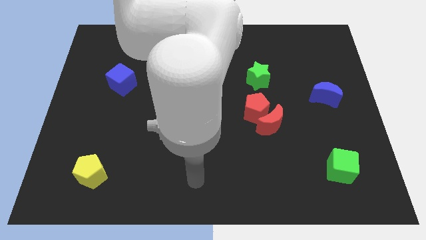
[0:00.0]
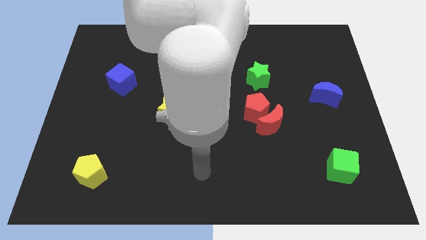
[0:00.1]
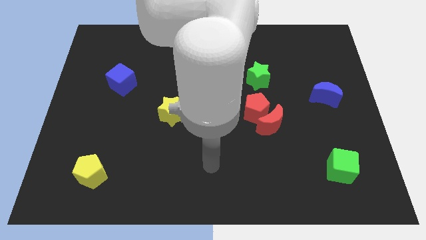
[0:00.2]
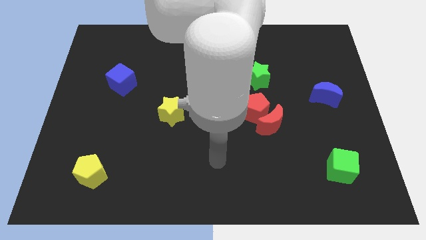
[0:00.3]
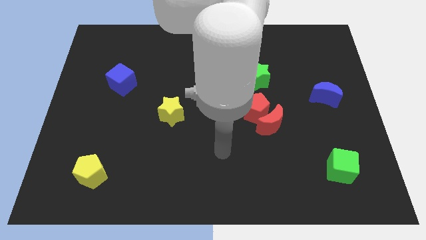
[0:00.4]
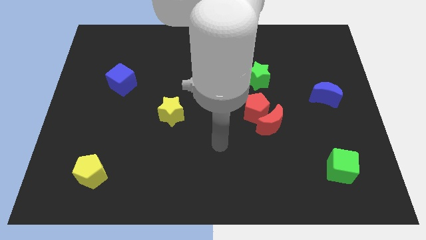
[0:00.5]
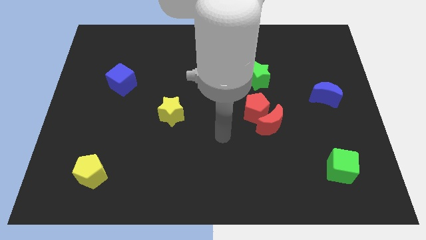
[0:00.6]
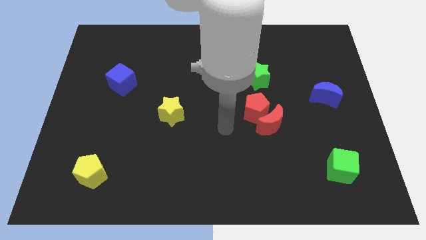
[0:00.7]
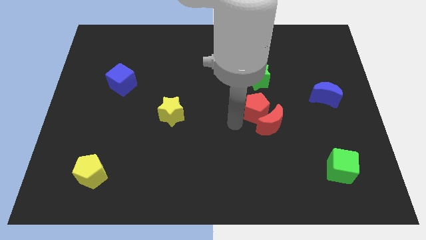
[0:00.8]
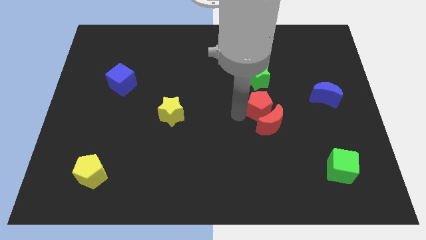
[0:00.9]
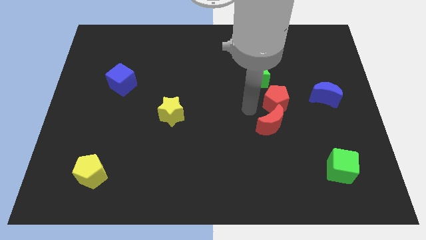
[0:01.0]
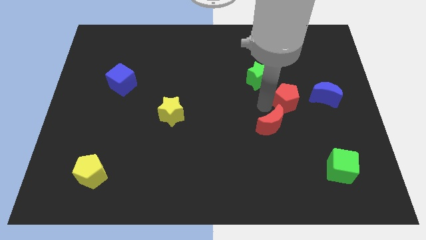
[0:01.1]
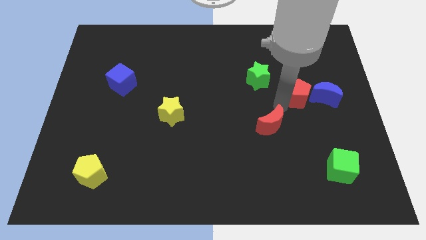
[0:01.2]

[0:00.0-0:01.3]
pull the red moon apart from the red pentagon

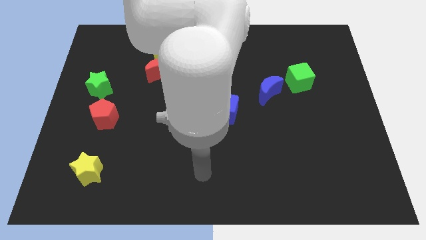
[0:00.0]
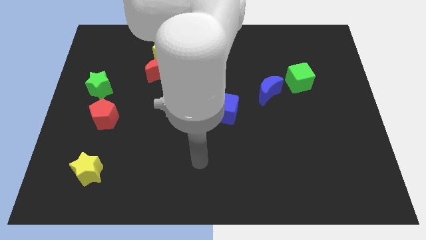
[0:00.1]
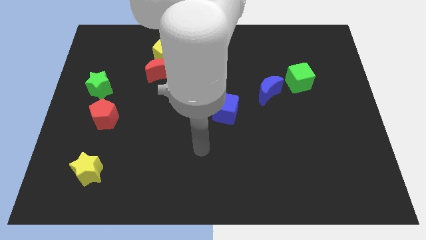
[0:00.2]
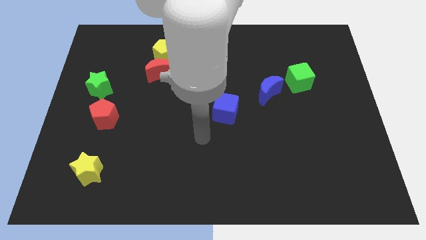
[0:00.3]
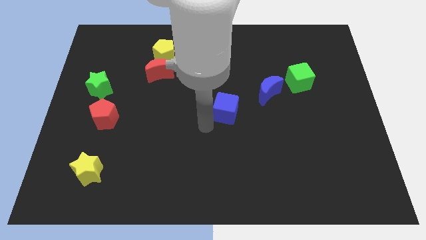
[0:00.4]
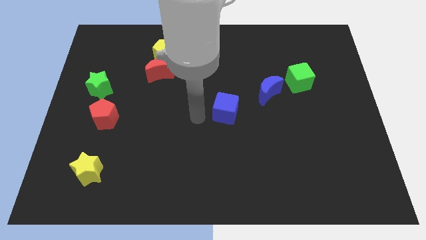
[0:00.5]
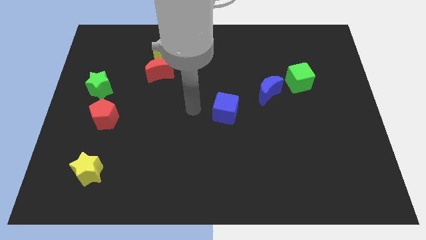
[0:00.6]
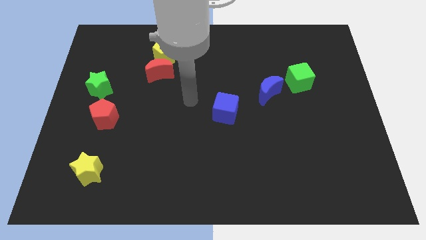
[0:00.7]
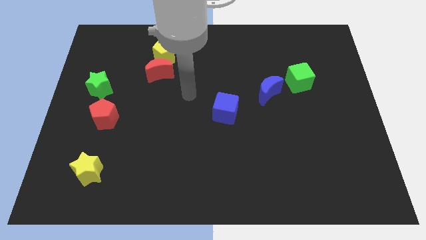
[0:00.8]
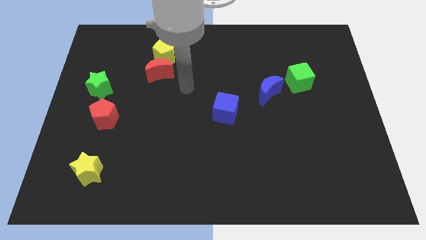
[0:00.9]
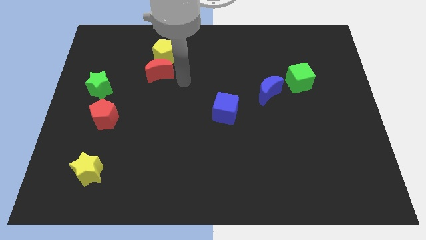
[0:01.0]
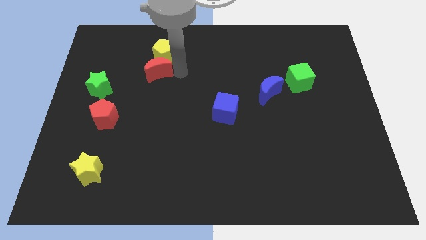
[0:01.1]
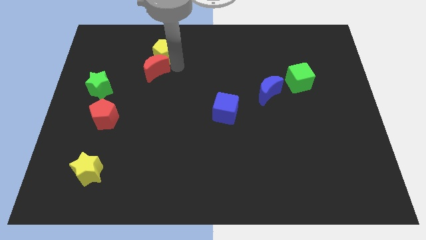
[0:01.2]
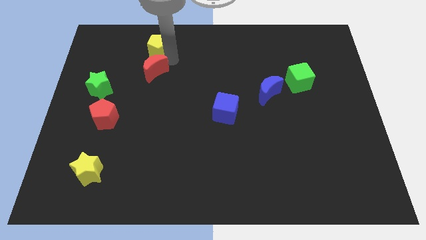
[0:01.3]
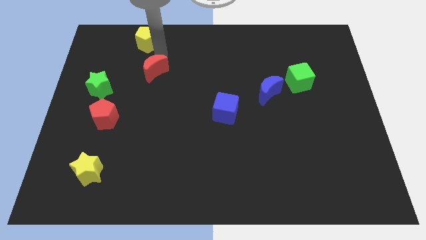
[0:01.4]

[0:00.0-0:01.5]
separate the red moon from the yellow pentagon

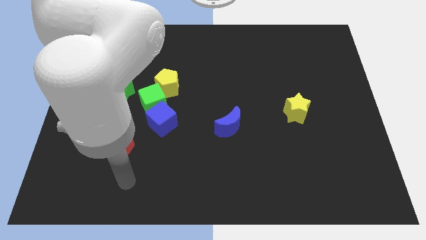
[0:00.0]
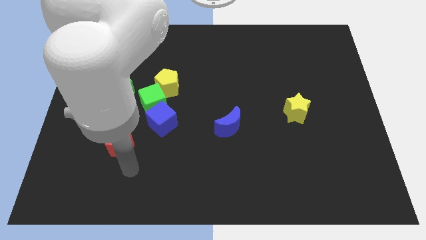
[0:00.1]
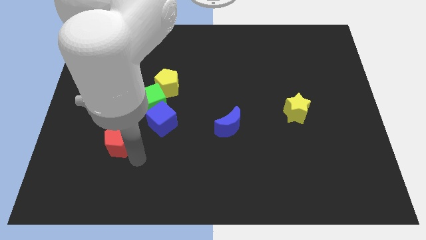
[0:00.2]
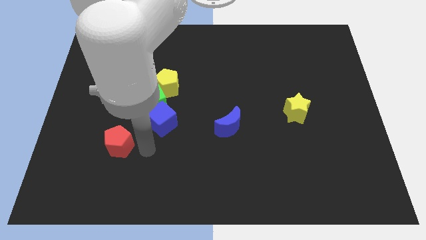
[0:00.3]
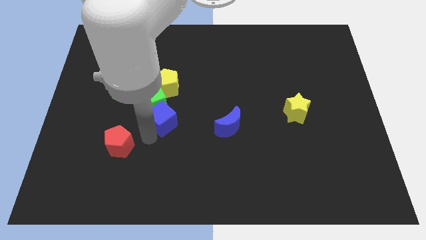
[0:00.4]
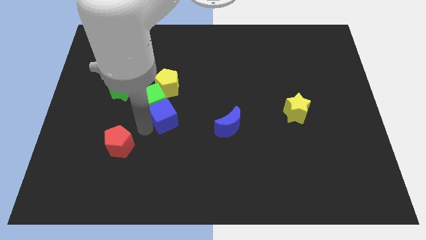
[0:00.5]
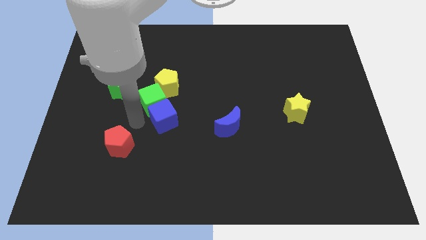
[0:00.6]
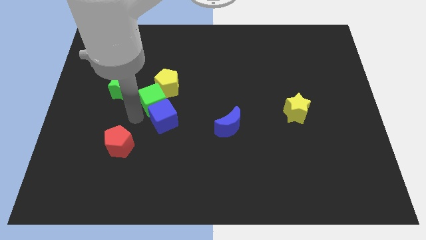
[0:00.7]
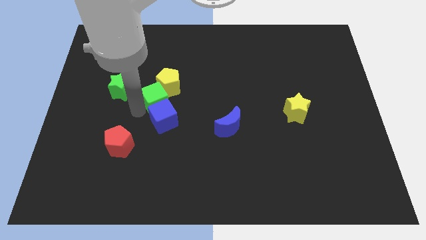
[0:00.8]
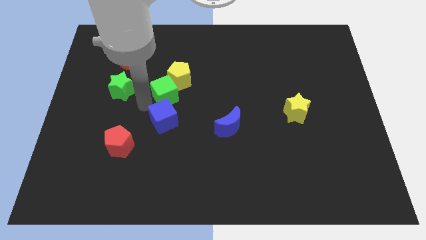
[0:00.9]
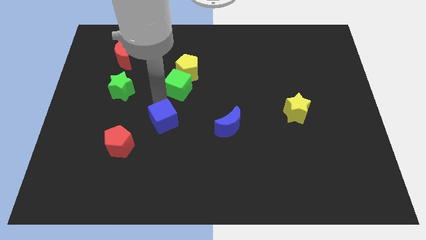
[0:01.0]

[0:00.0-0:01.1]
move the blue cube away from the green cube

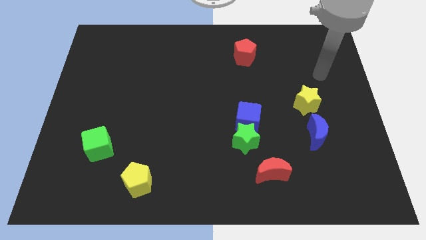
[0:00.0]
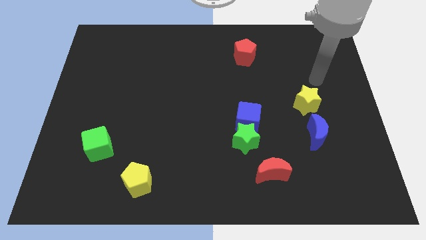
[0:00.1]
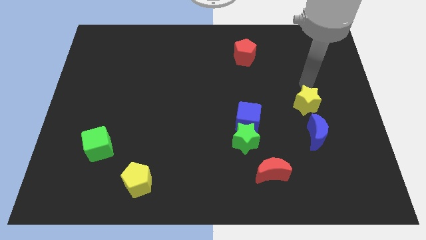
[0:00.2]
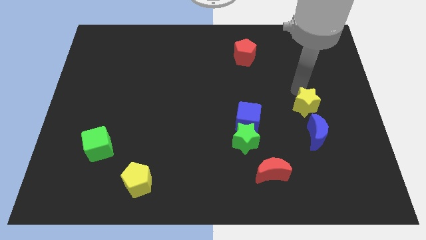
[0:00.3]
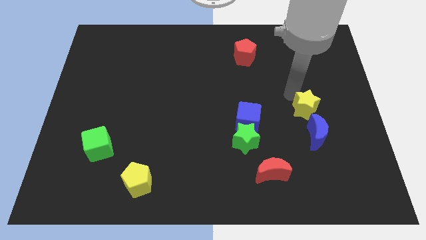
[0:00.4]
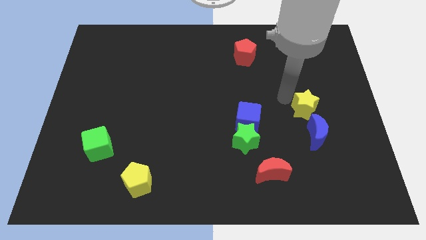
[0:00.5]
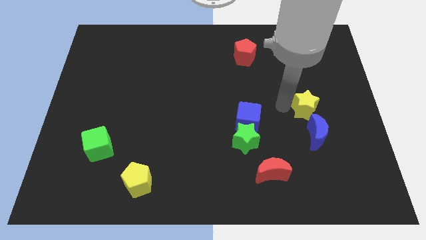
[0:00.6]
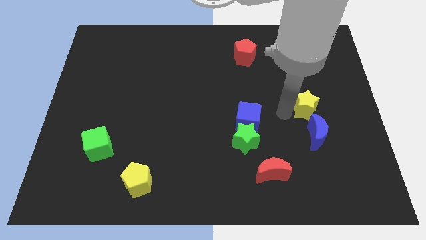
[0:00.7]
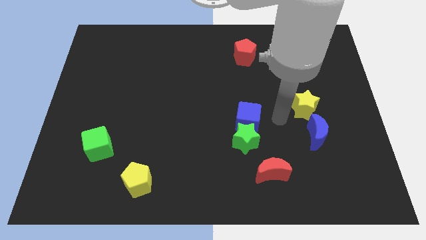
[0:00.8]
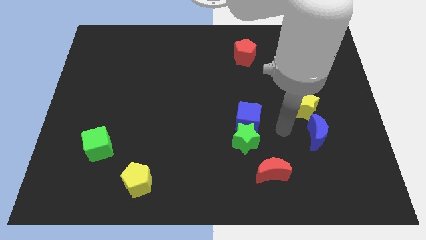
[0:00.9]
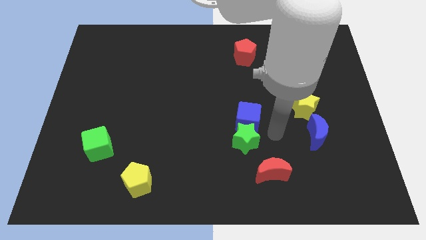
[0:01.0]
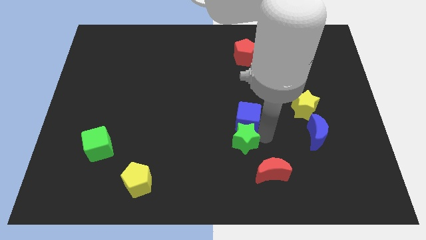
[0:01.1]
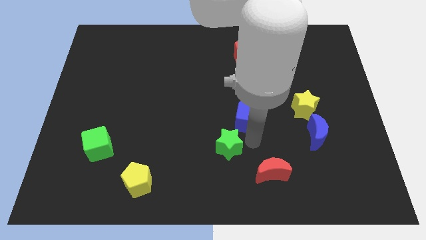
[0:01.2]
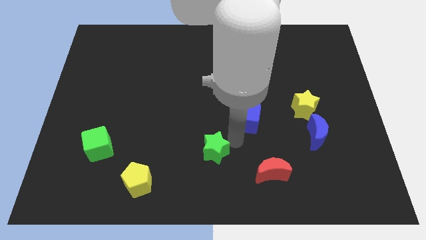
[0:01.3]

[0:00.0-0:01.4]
pull the blue cube apart from the green star

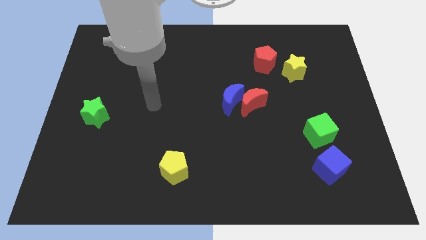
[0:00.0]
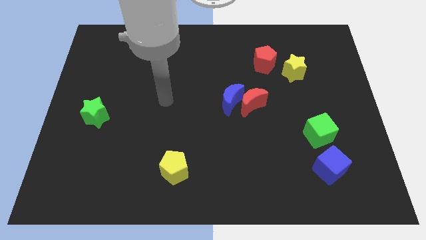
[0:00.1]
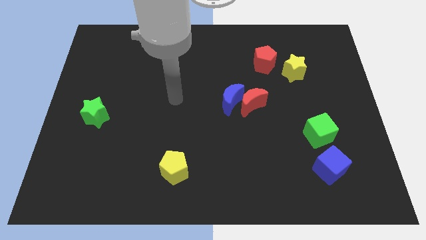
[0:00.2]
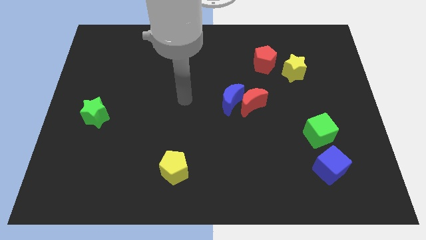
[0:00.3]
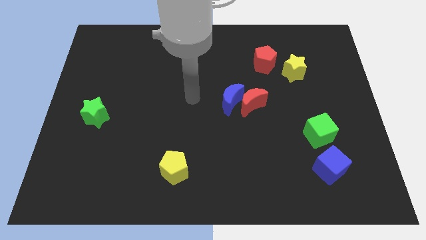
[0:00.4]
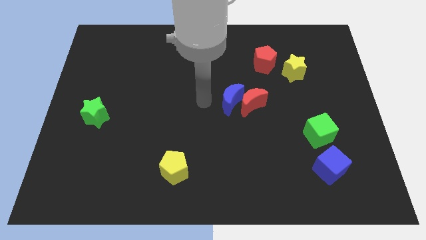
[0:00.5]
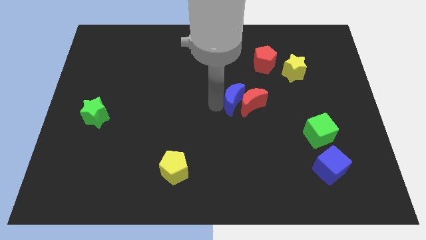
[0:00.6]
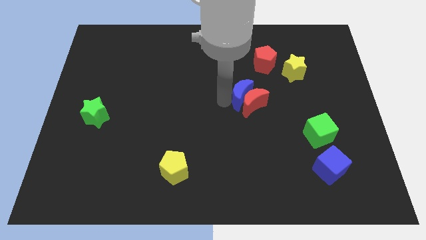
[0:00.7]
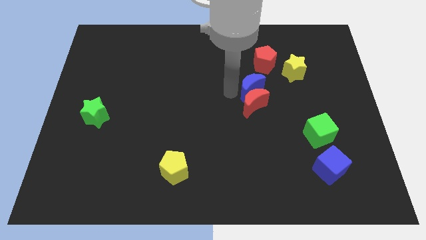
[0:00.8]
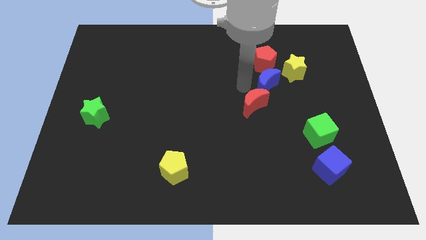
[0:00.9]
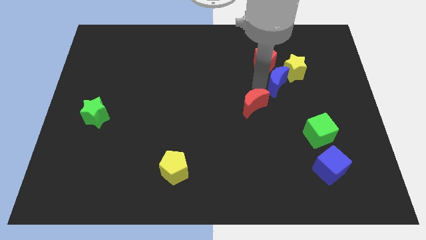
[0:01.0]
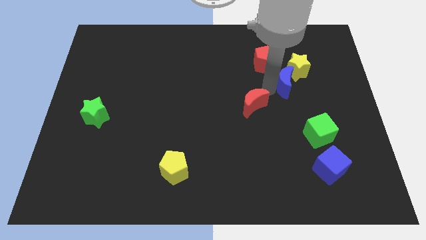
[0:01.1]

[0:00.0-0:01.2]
move the red moon away from the blue moon

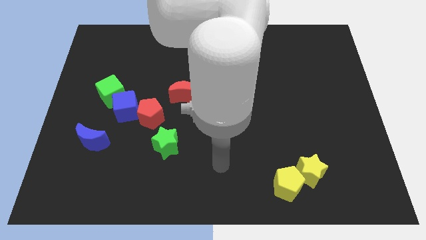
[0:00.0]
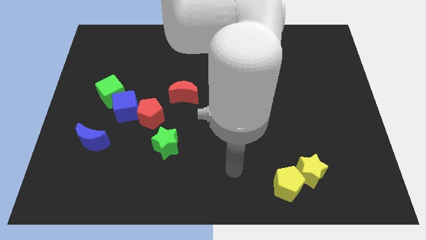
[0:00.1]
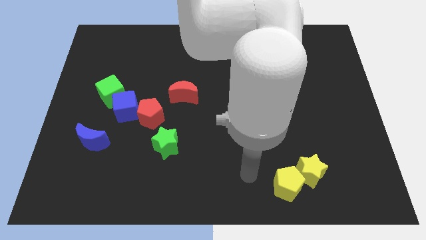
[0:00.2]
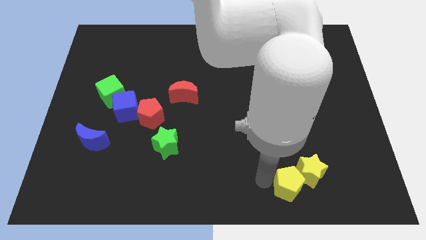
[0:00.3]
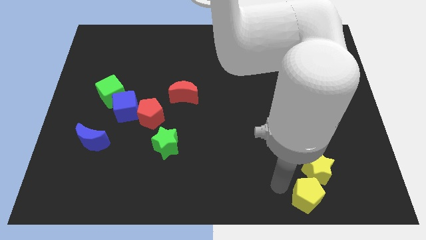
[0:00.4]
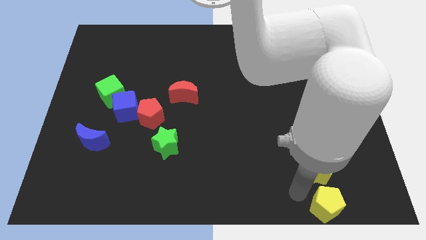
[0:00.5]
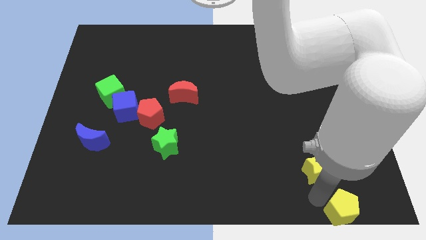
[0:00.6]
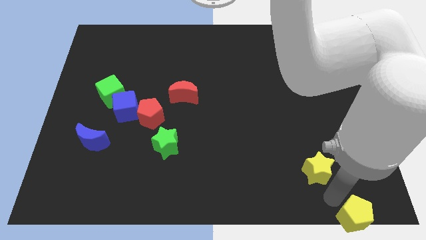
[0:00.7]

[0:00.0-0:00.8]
separate the yellow star from the yellow pentagon

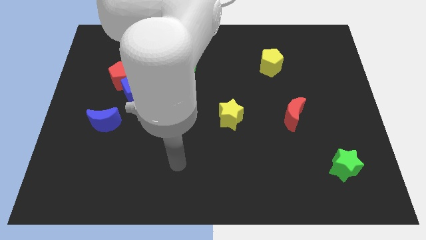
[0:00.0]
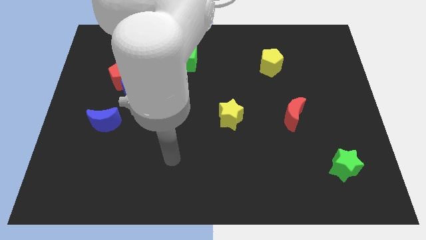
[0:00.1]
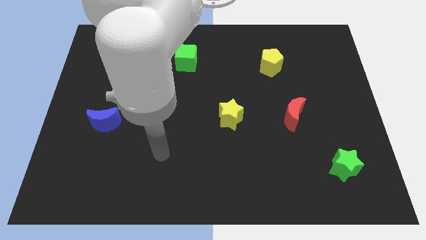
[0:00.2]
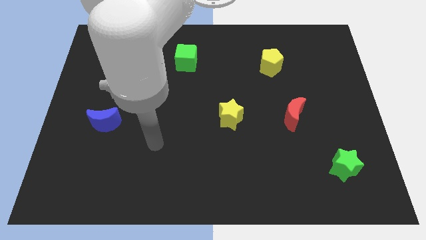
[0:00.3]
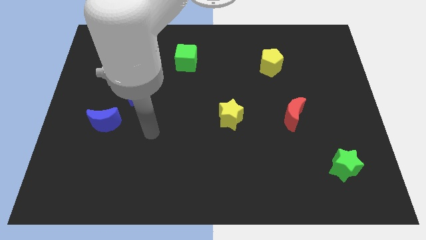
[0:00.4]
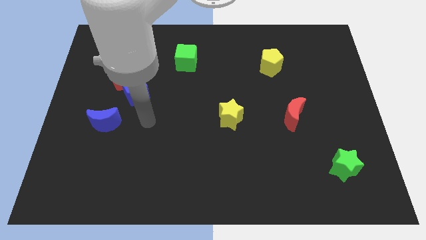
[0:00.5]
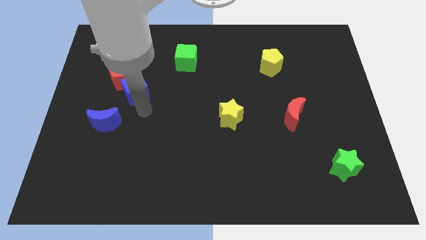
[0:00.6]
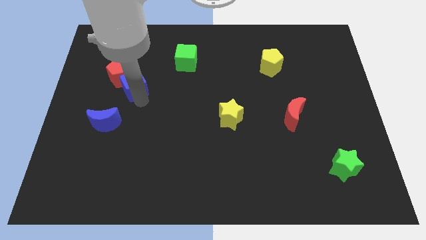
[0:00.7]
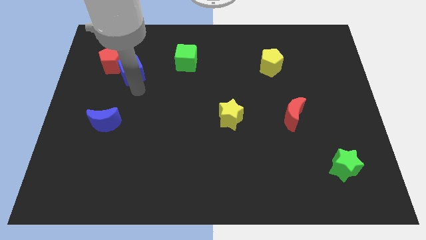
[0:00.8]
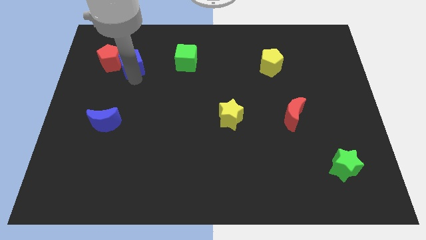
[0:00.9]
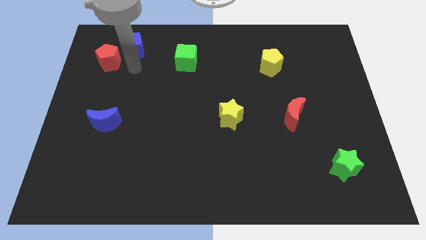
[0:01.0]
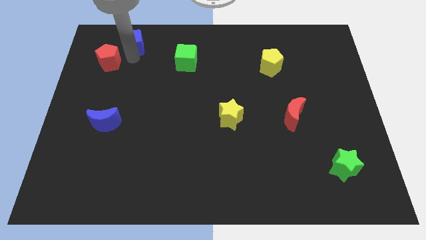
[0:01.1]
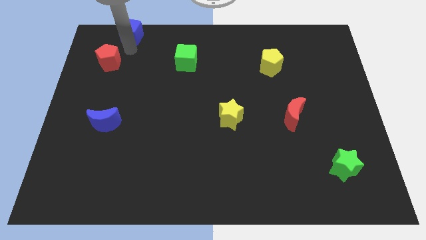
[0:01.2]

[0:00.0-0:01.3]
pull the red pentagon apart from the blue cube

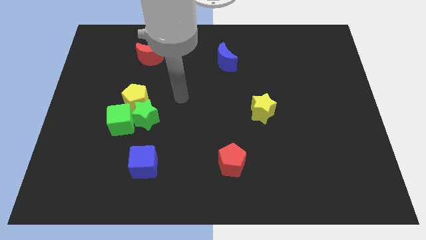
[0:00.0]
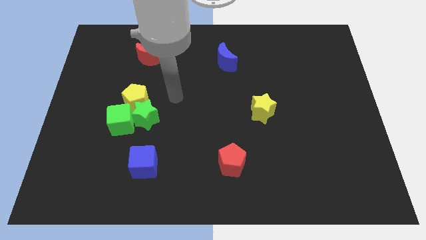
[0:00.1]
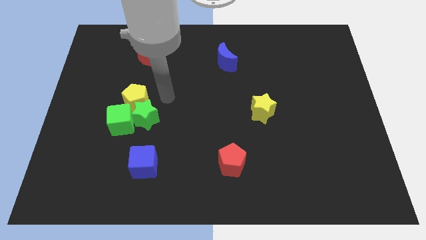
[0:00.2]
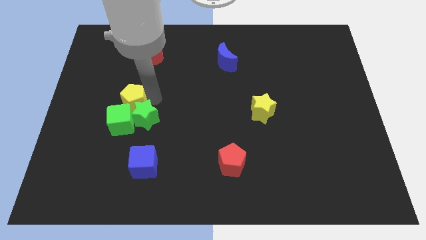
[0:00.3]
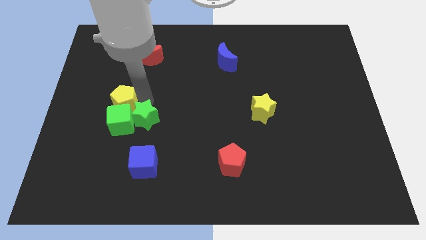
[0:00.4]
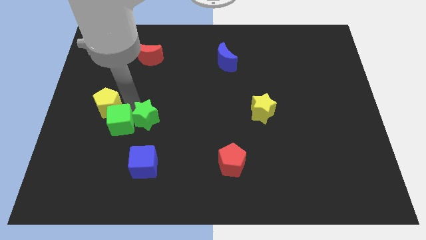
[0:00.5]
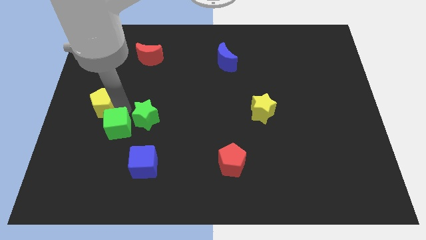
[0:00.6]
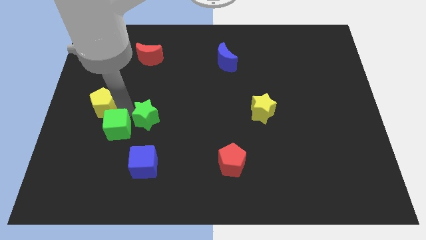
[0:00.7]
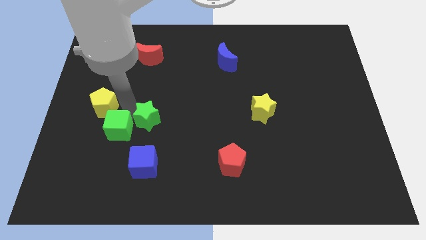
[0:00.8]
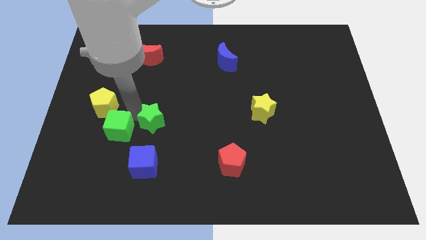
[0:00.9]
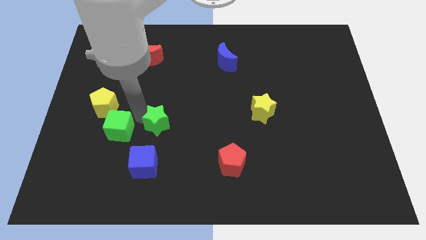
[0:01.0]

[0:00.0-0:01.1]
pull the green star apart from the yellow pentagon and green cube
